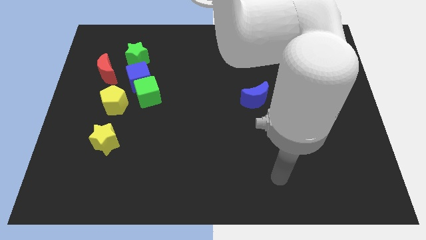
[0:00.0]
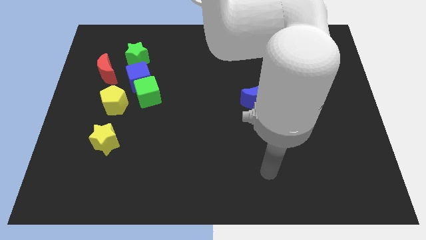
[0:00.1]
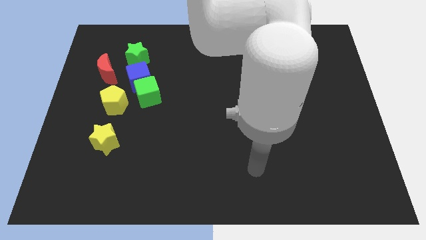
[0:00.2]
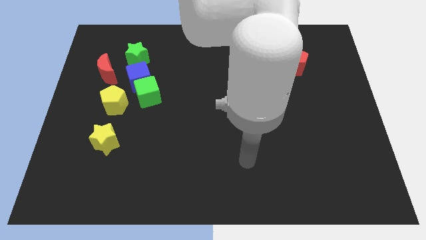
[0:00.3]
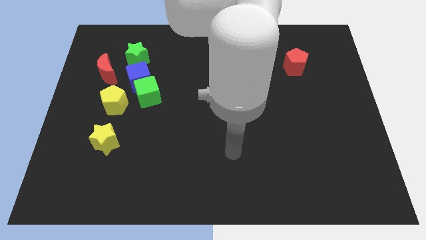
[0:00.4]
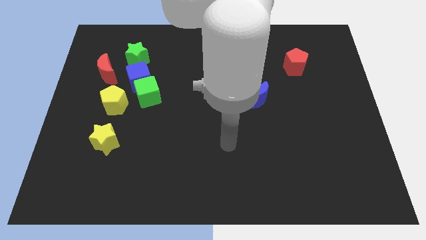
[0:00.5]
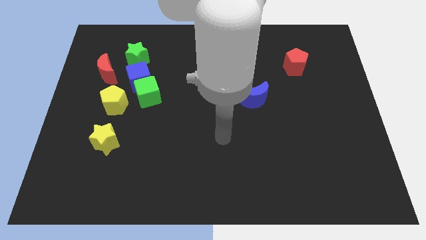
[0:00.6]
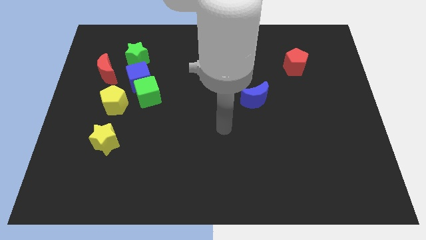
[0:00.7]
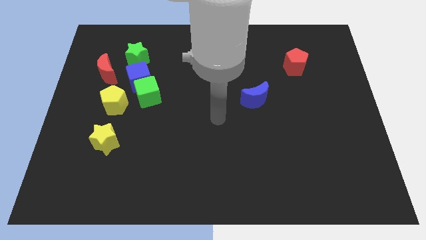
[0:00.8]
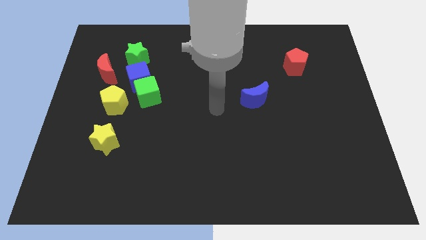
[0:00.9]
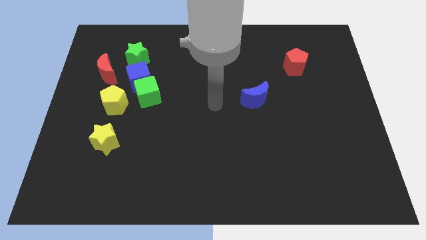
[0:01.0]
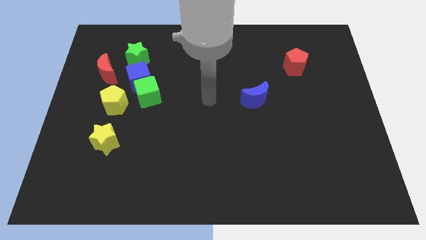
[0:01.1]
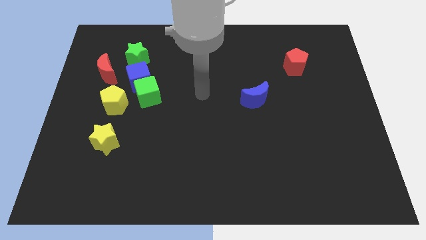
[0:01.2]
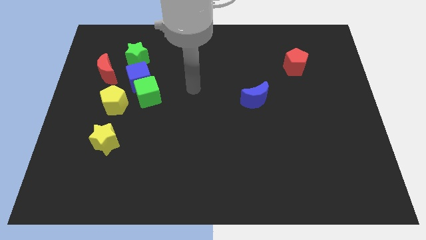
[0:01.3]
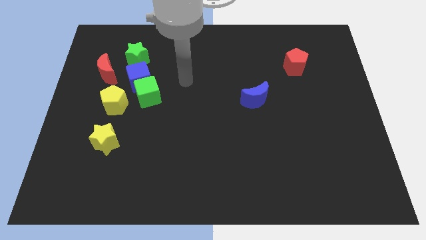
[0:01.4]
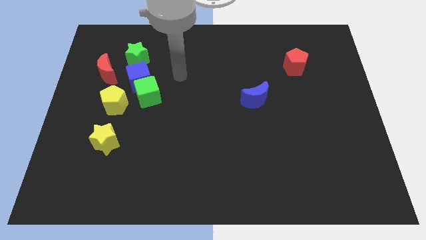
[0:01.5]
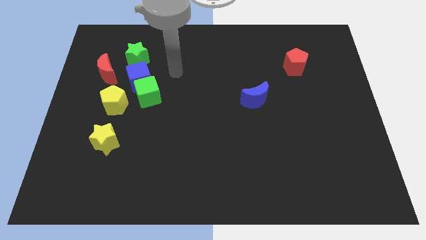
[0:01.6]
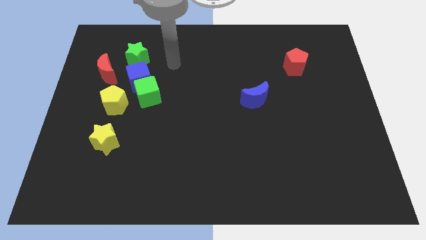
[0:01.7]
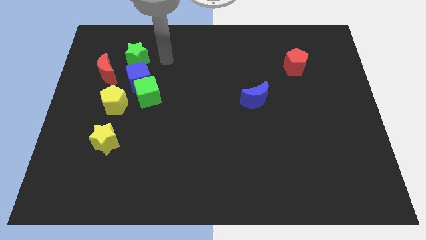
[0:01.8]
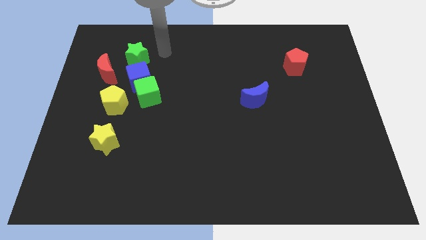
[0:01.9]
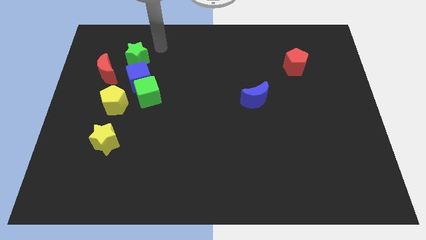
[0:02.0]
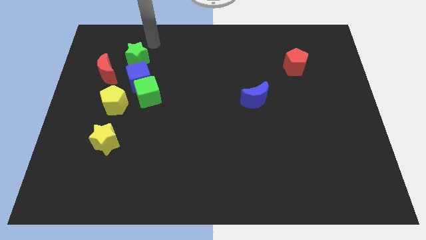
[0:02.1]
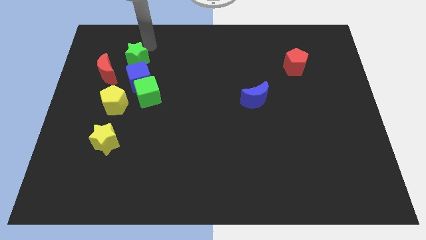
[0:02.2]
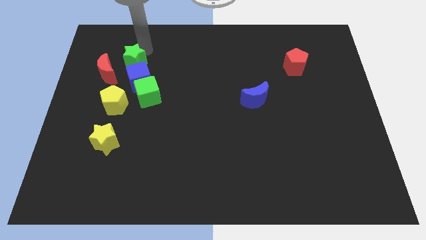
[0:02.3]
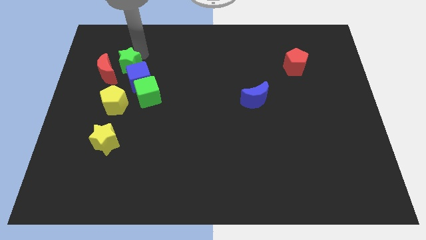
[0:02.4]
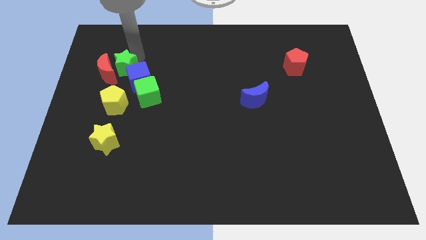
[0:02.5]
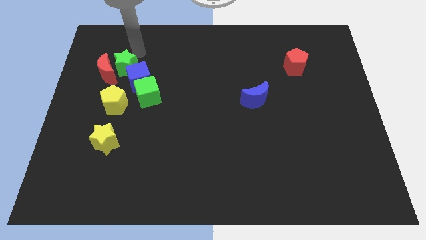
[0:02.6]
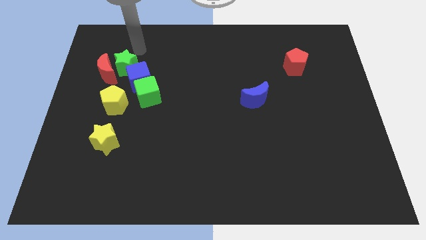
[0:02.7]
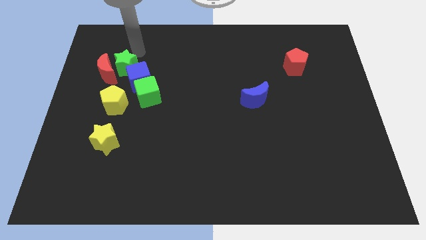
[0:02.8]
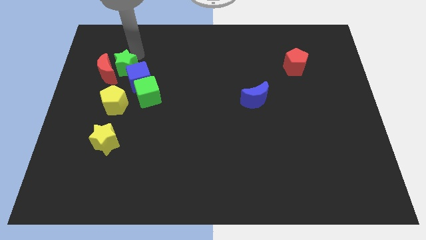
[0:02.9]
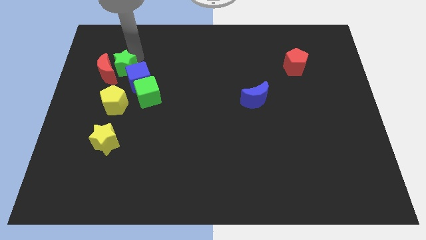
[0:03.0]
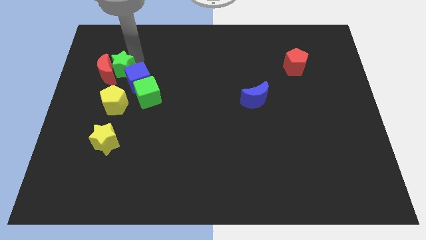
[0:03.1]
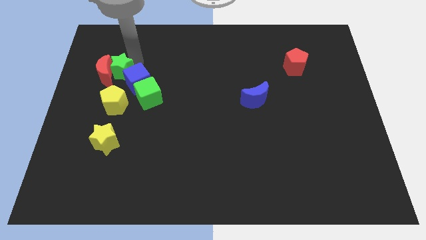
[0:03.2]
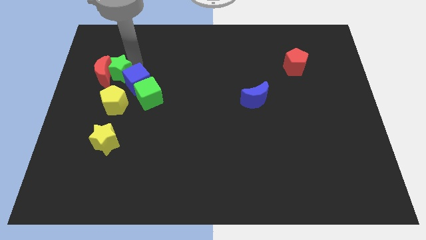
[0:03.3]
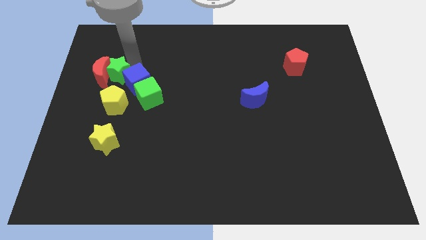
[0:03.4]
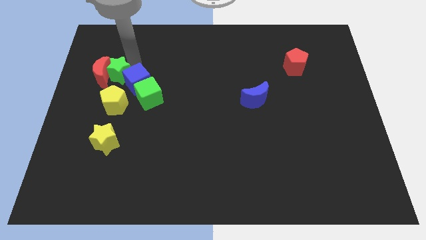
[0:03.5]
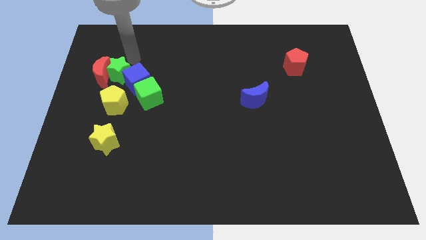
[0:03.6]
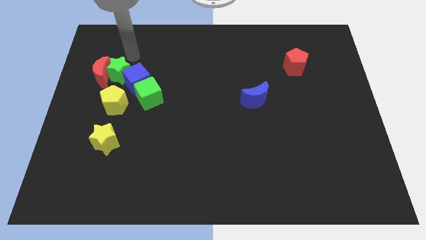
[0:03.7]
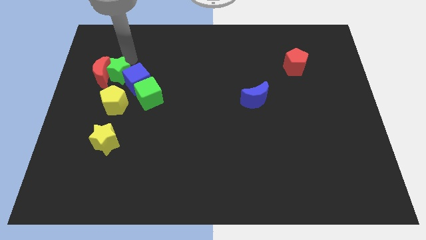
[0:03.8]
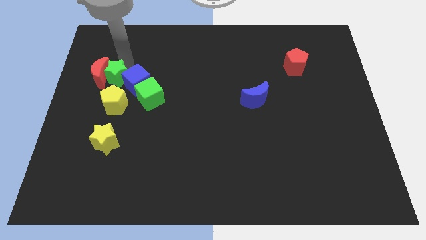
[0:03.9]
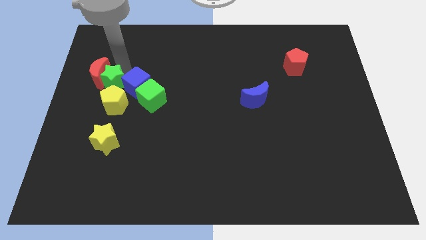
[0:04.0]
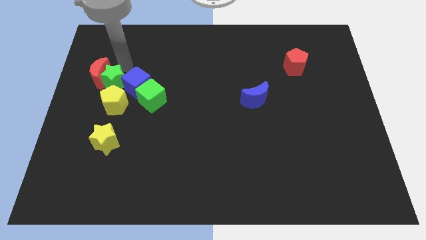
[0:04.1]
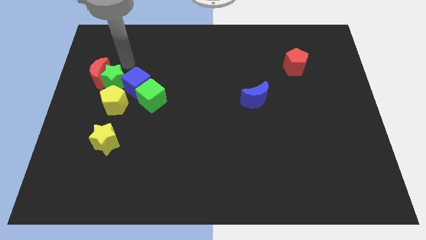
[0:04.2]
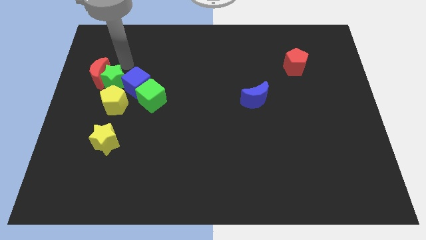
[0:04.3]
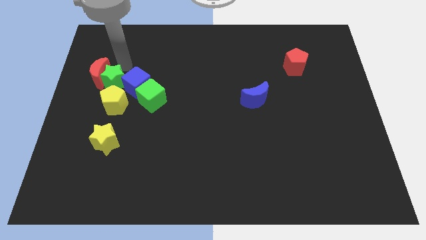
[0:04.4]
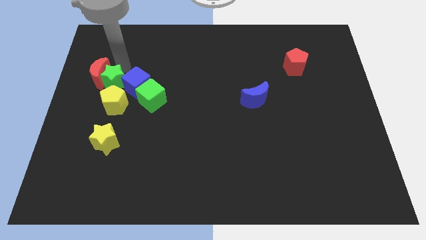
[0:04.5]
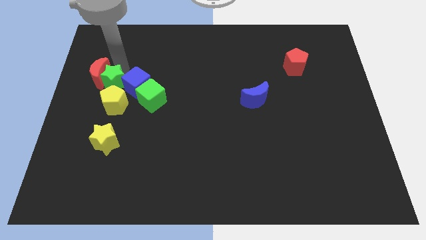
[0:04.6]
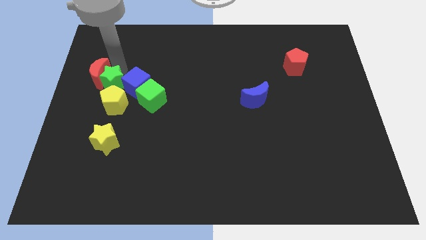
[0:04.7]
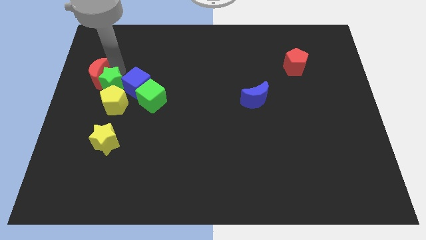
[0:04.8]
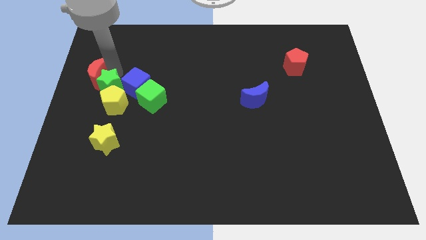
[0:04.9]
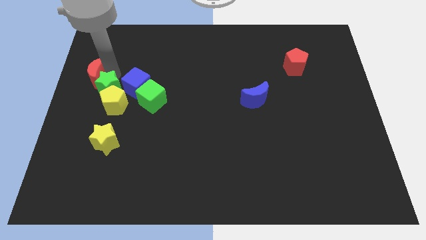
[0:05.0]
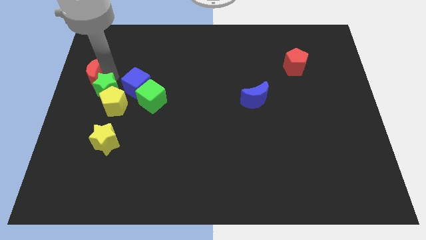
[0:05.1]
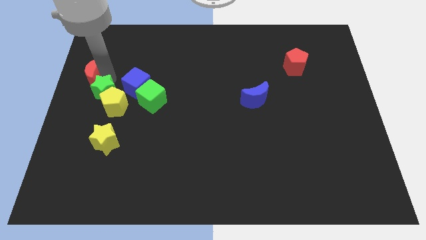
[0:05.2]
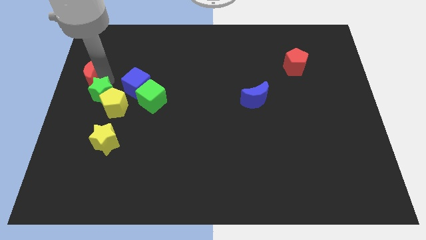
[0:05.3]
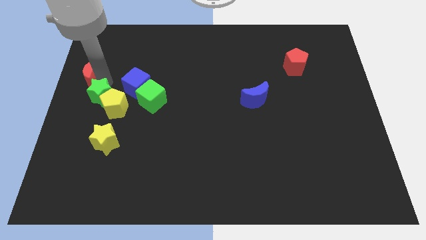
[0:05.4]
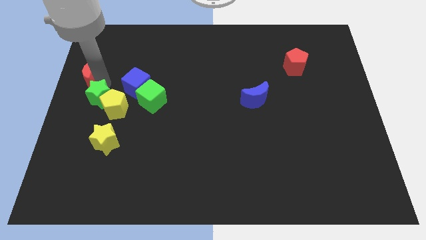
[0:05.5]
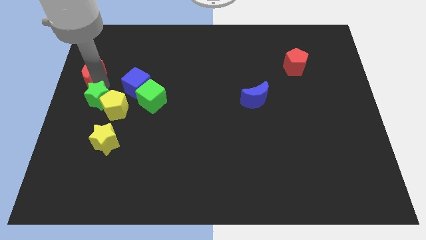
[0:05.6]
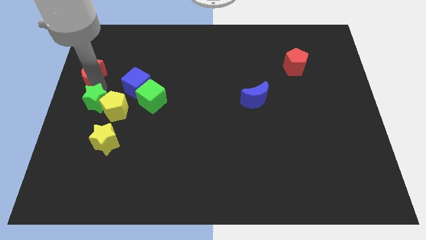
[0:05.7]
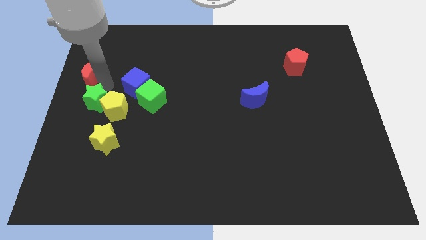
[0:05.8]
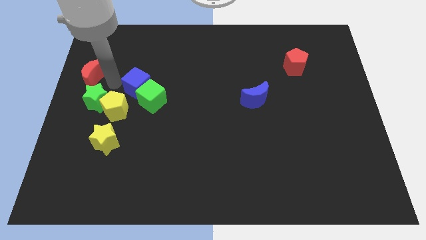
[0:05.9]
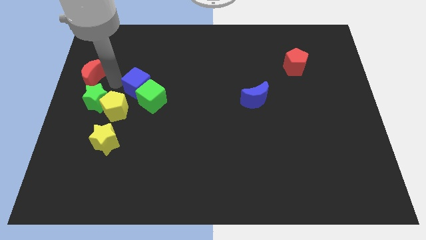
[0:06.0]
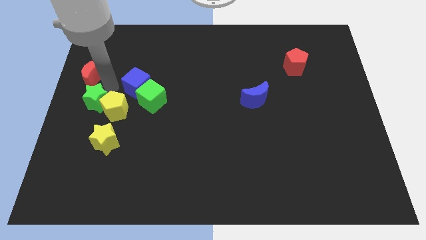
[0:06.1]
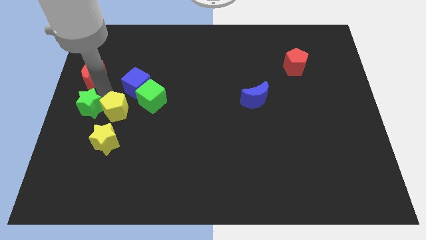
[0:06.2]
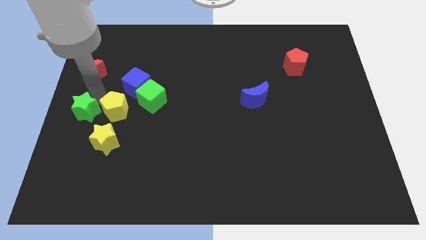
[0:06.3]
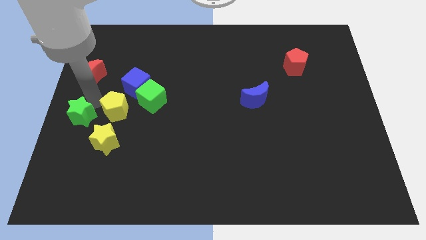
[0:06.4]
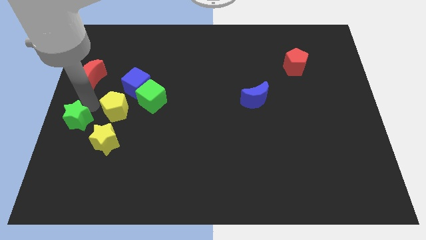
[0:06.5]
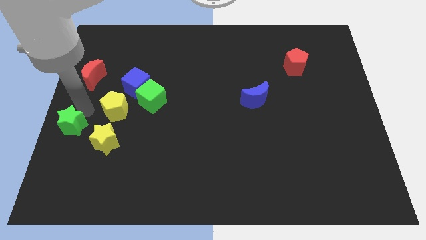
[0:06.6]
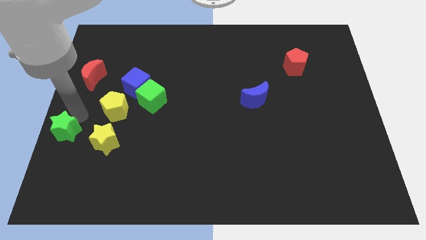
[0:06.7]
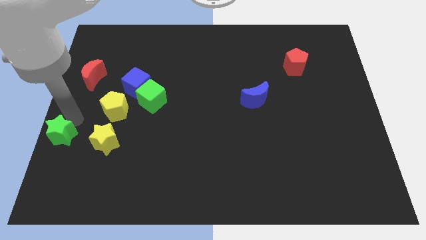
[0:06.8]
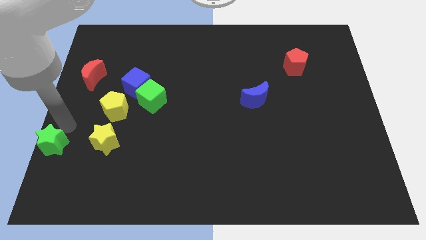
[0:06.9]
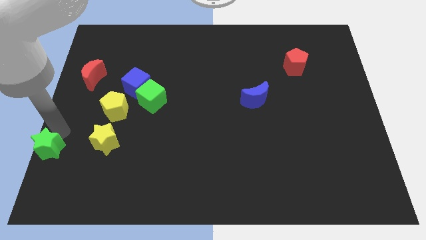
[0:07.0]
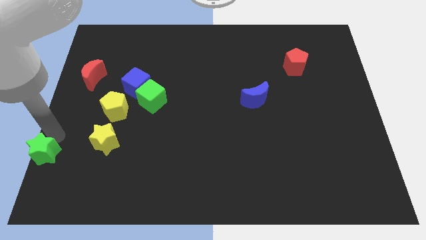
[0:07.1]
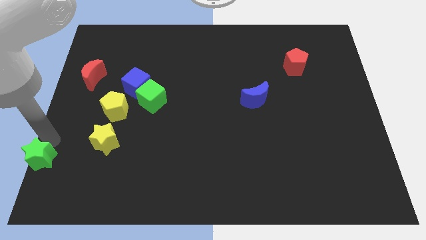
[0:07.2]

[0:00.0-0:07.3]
put the green star to the bottom left corner
